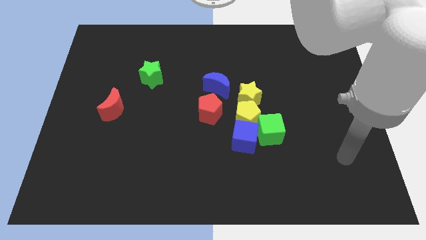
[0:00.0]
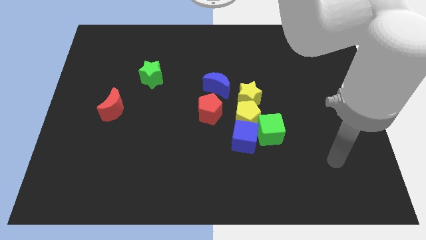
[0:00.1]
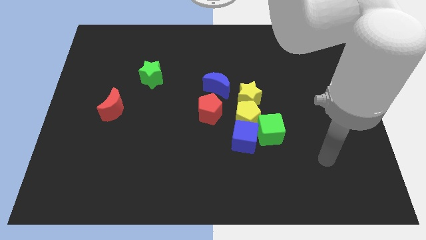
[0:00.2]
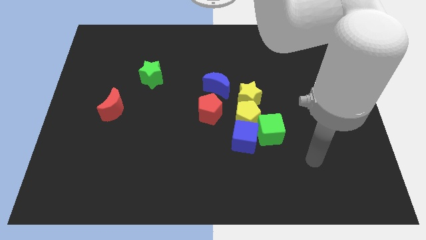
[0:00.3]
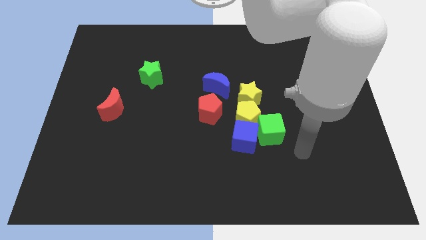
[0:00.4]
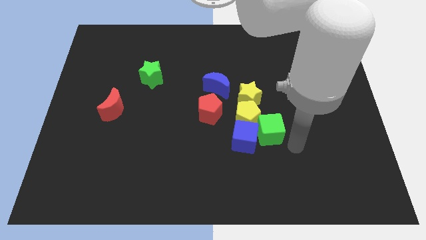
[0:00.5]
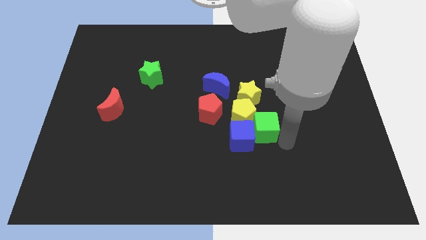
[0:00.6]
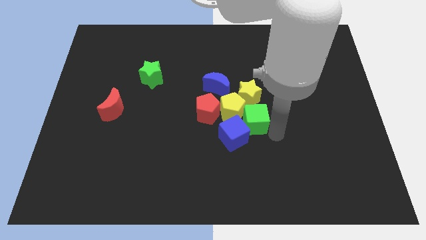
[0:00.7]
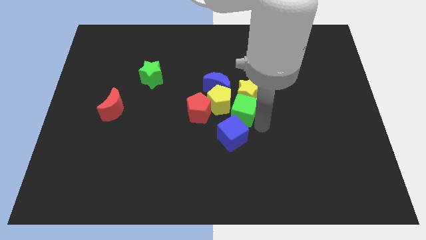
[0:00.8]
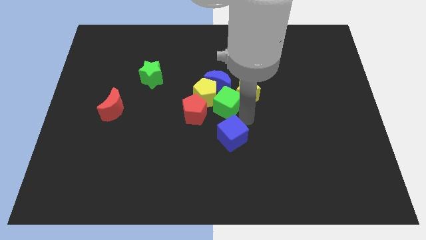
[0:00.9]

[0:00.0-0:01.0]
separate the blue cube from the yellow pentagon and green cube

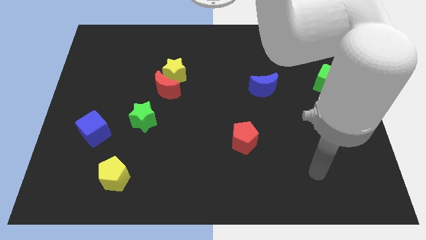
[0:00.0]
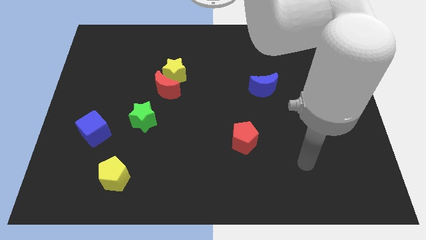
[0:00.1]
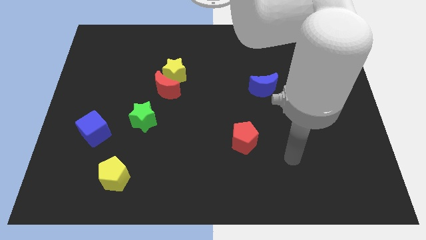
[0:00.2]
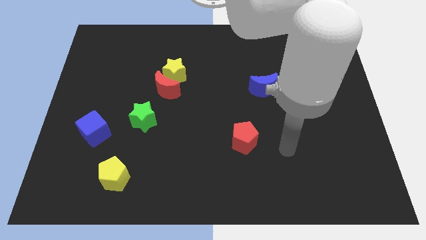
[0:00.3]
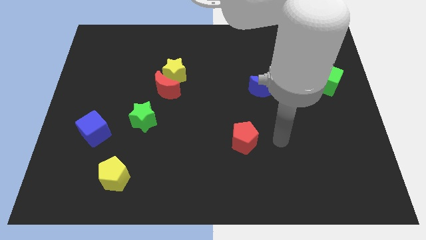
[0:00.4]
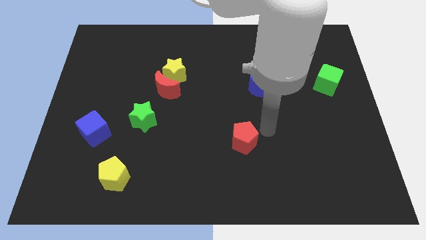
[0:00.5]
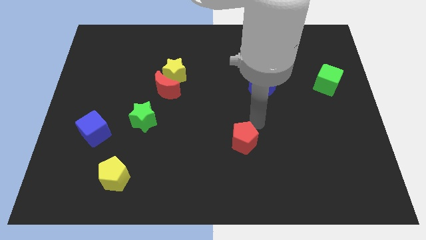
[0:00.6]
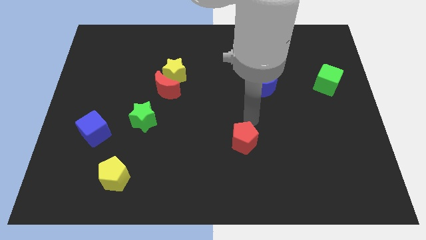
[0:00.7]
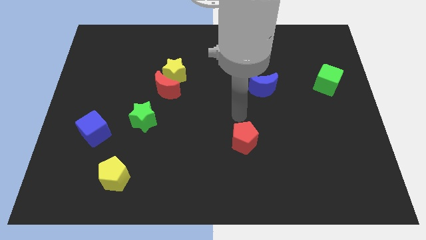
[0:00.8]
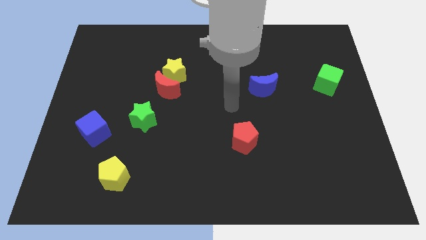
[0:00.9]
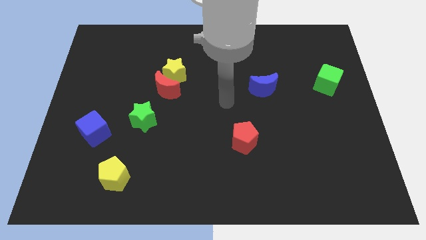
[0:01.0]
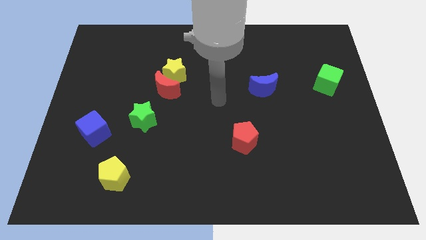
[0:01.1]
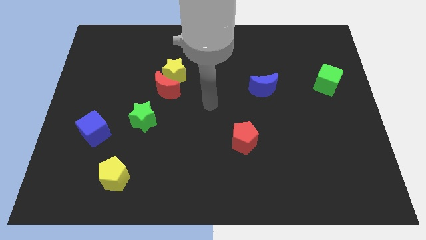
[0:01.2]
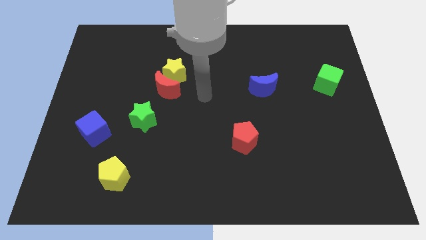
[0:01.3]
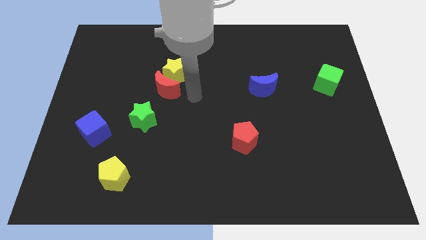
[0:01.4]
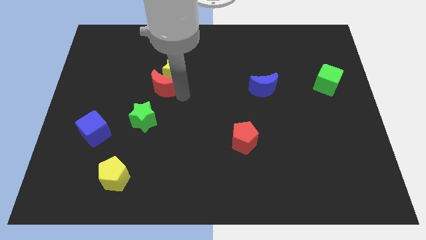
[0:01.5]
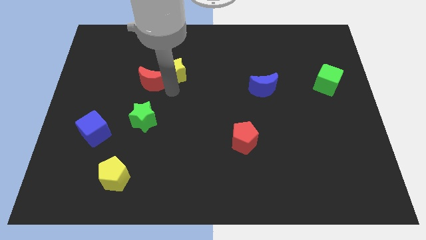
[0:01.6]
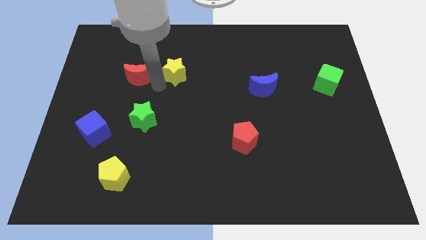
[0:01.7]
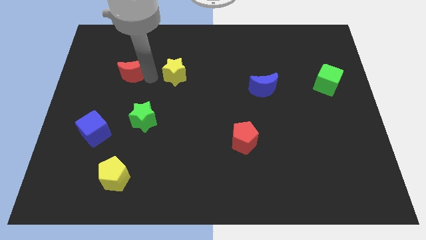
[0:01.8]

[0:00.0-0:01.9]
separate the yellow star from the red moon

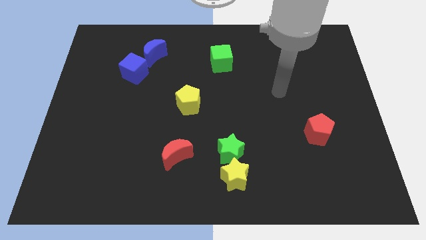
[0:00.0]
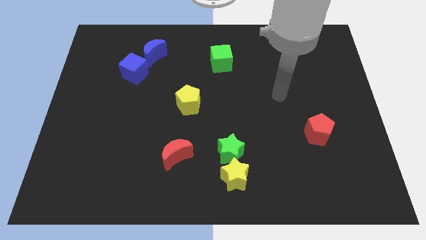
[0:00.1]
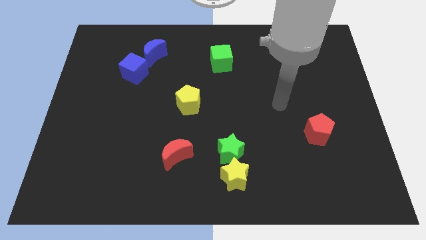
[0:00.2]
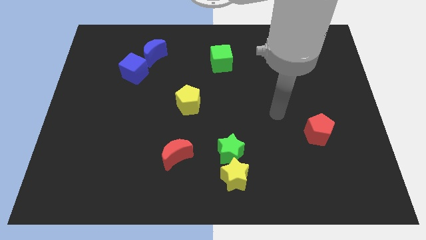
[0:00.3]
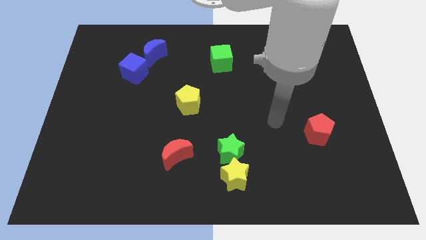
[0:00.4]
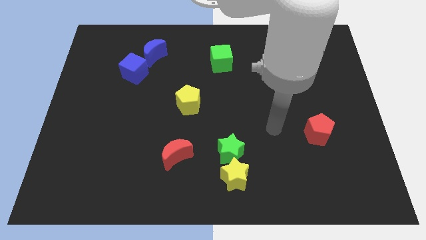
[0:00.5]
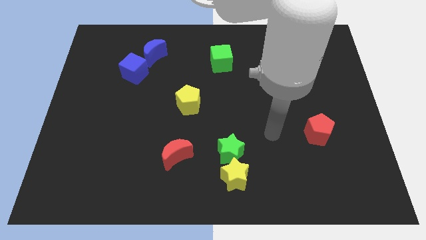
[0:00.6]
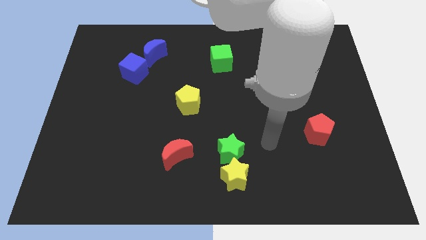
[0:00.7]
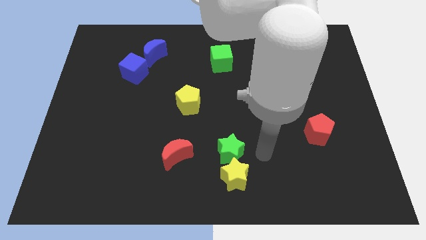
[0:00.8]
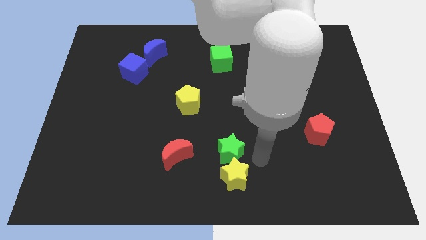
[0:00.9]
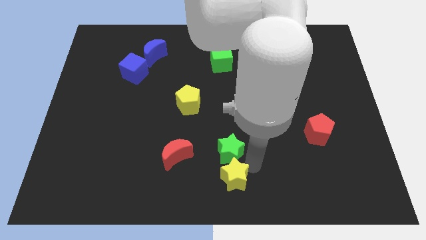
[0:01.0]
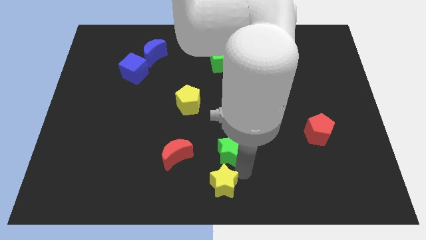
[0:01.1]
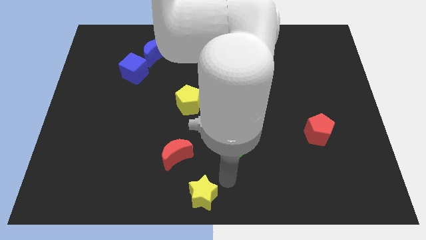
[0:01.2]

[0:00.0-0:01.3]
move the green star away from the yellow star

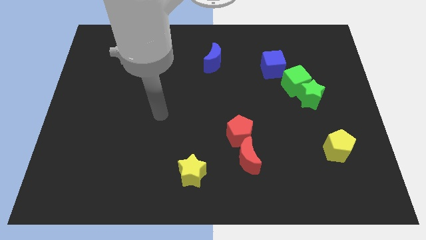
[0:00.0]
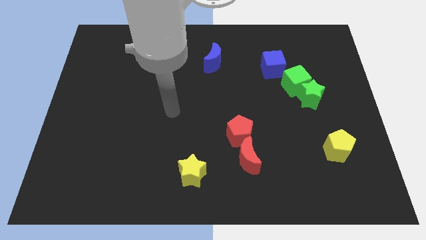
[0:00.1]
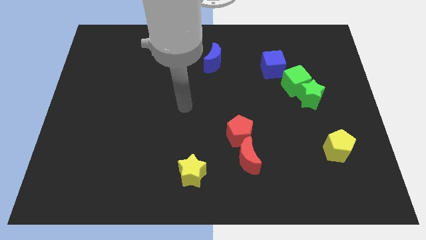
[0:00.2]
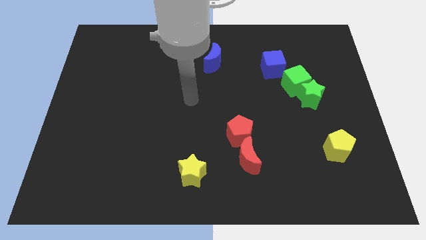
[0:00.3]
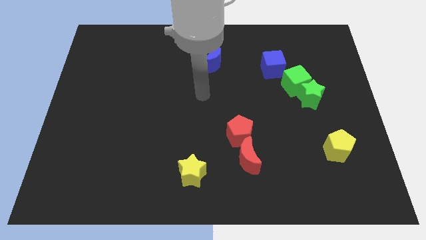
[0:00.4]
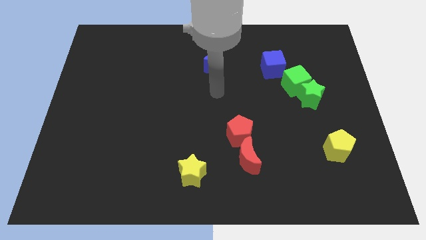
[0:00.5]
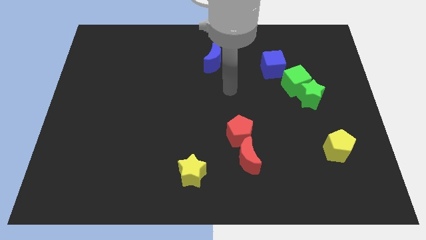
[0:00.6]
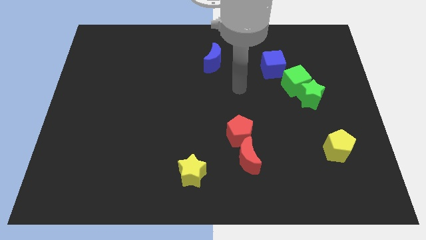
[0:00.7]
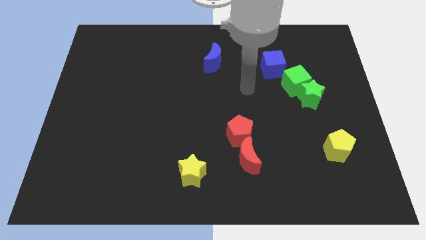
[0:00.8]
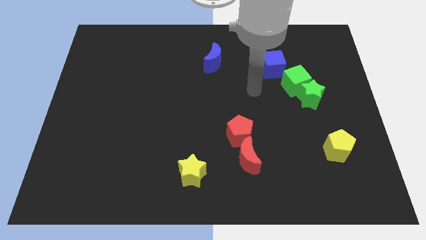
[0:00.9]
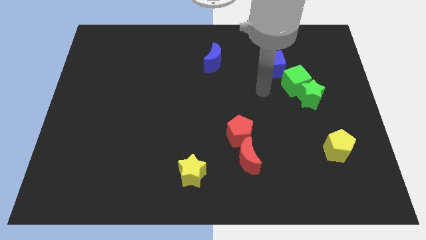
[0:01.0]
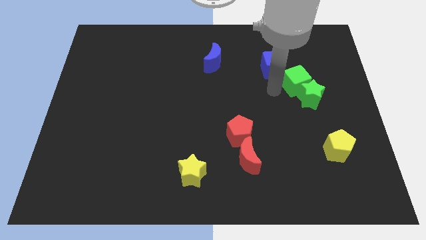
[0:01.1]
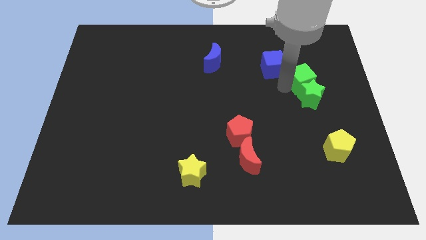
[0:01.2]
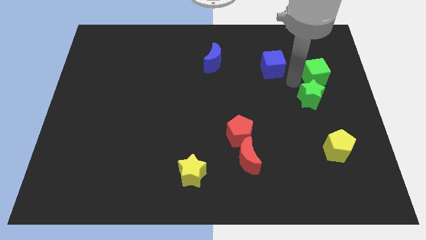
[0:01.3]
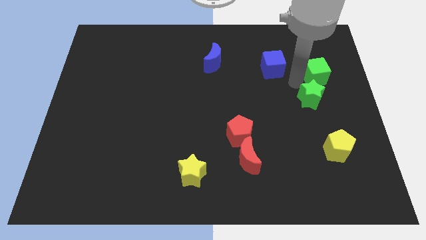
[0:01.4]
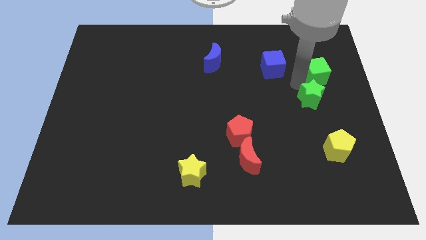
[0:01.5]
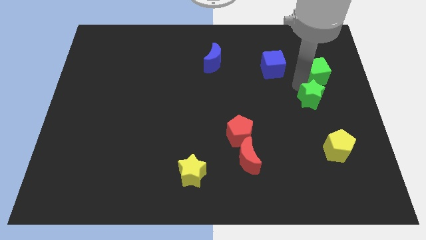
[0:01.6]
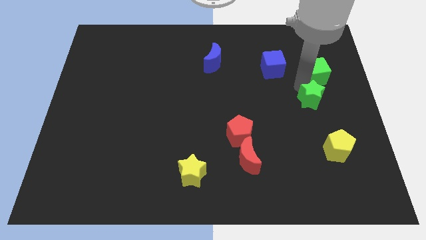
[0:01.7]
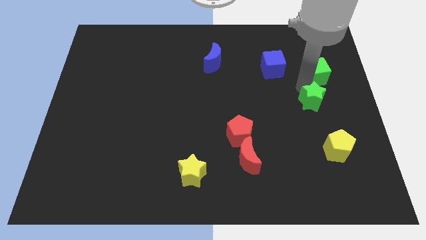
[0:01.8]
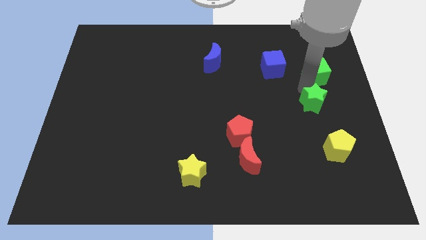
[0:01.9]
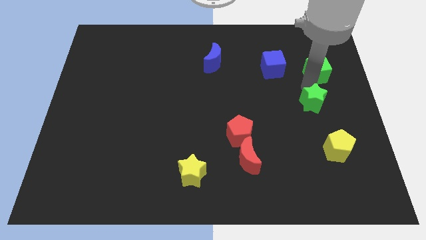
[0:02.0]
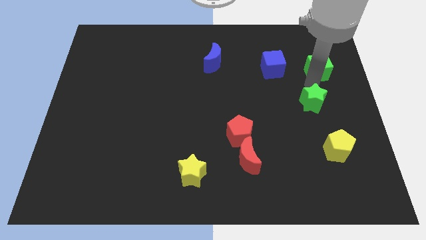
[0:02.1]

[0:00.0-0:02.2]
move the green star away from the green cube

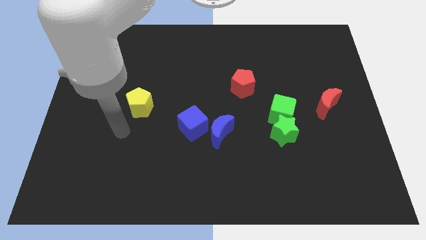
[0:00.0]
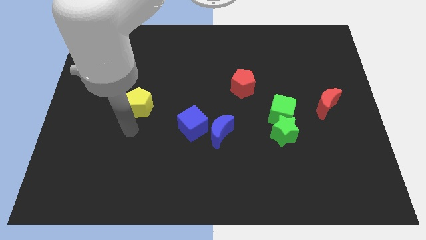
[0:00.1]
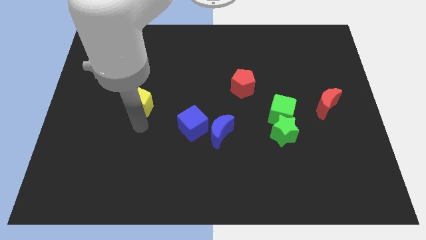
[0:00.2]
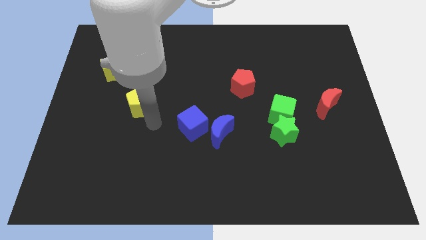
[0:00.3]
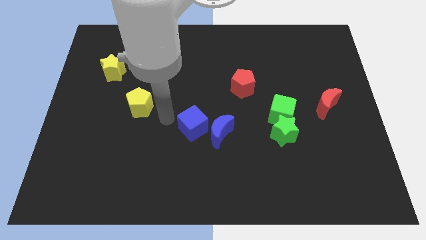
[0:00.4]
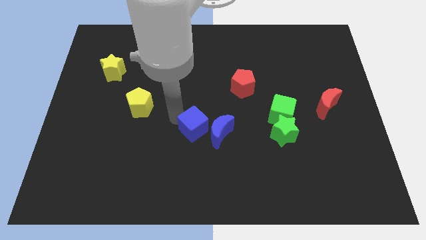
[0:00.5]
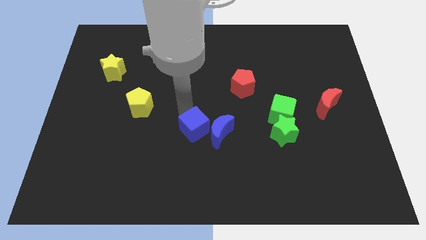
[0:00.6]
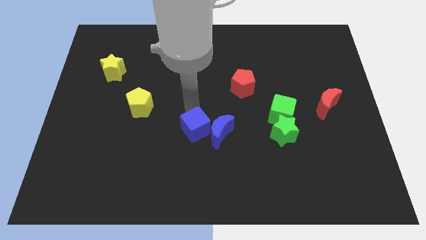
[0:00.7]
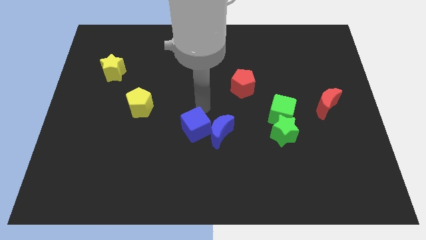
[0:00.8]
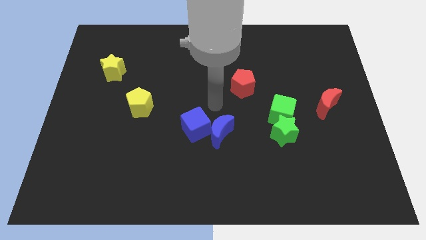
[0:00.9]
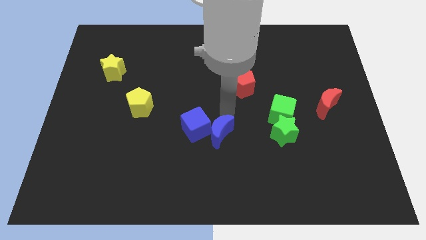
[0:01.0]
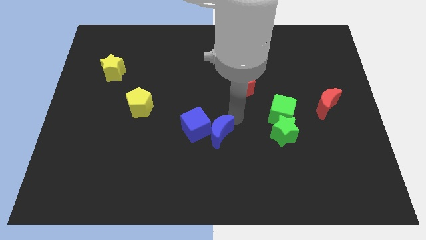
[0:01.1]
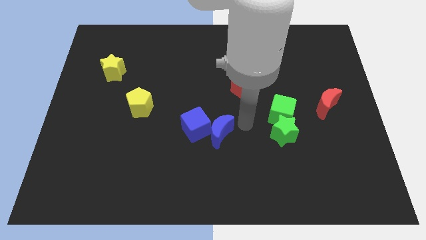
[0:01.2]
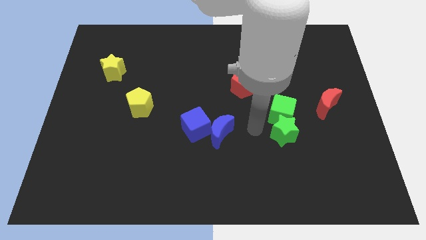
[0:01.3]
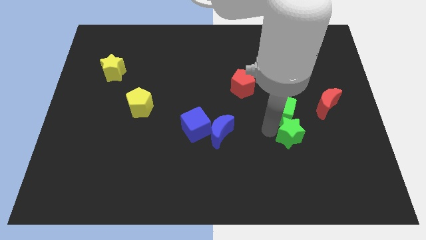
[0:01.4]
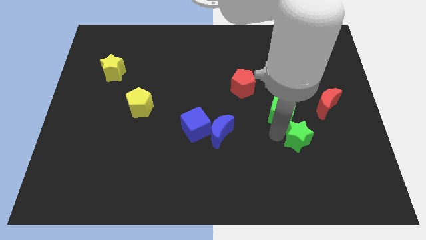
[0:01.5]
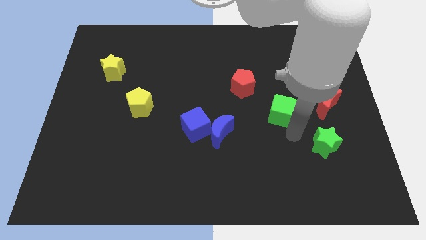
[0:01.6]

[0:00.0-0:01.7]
pull the green cube apart from the green star

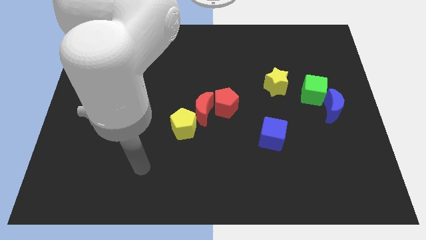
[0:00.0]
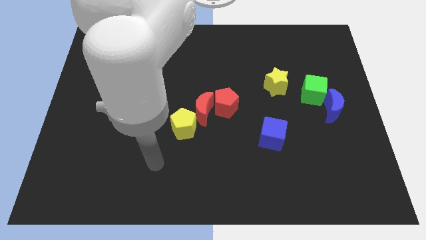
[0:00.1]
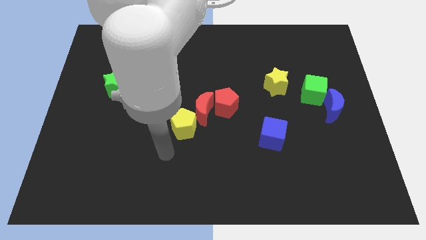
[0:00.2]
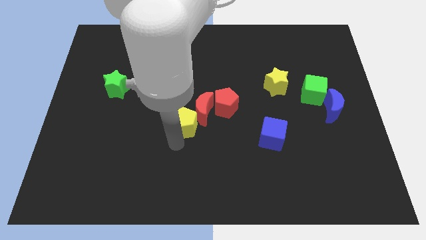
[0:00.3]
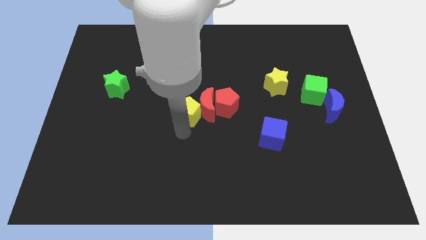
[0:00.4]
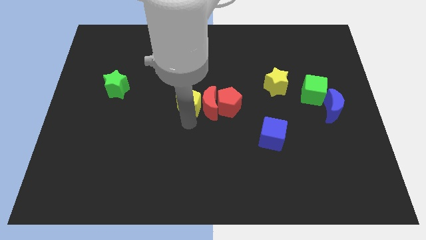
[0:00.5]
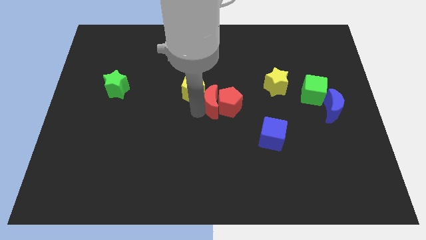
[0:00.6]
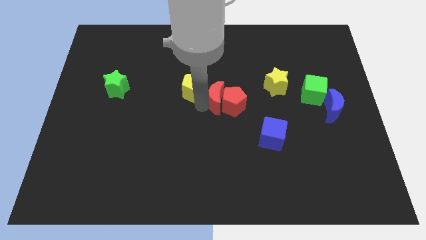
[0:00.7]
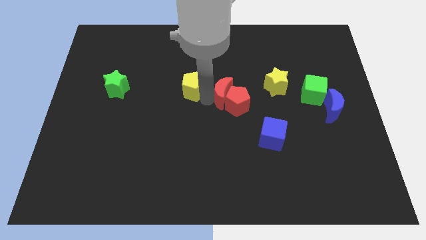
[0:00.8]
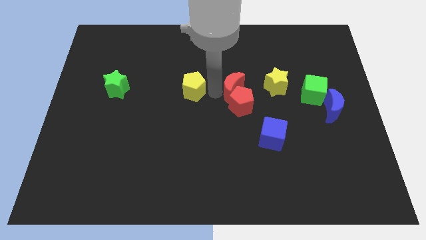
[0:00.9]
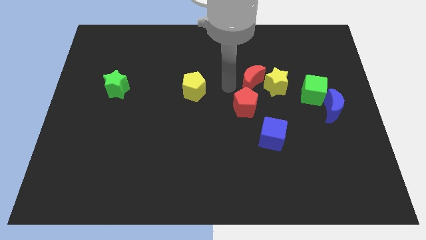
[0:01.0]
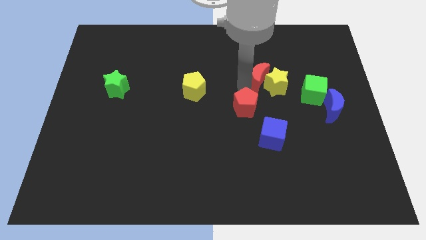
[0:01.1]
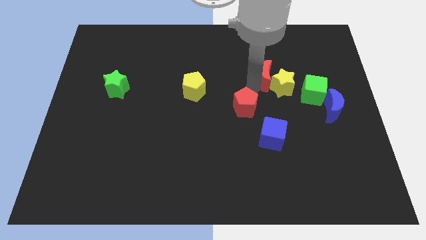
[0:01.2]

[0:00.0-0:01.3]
move the red pentagon away from the red moon
